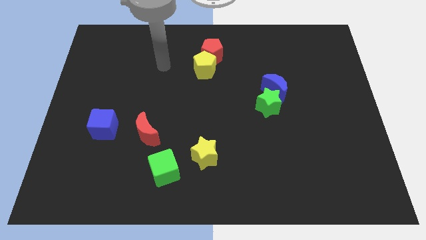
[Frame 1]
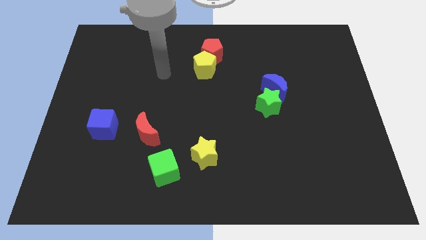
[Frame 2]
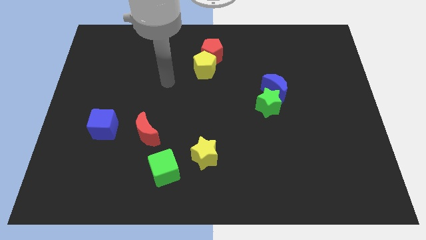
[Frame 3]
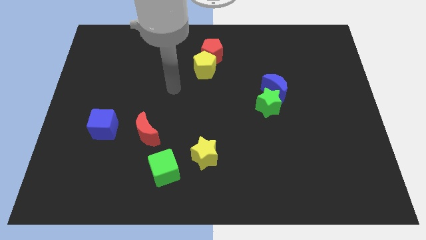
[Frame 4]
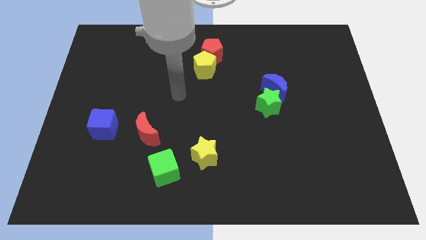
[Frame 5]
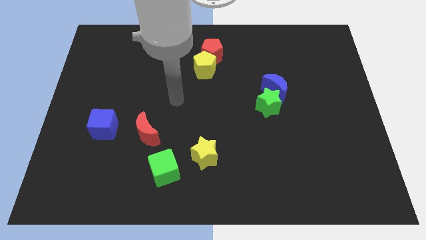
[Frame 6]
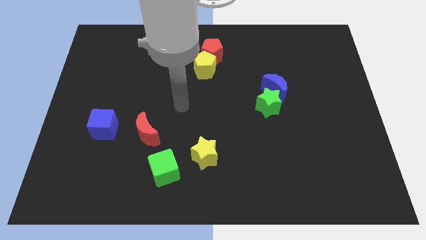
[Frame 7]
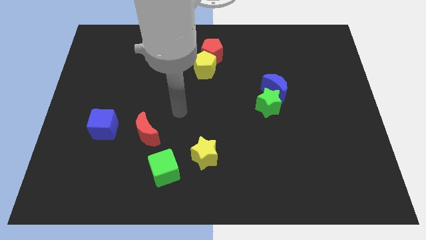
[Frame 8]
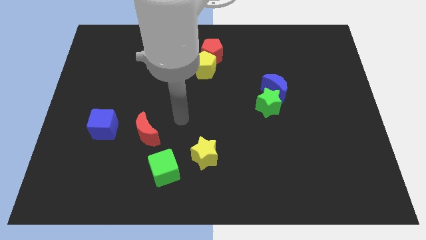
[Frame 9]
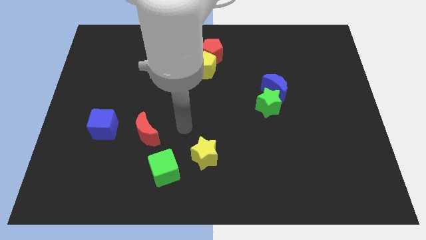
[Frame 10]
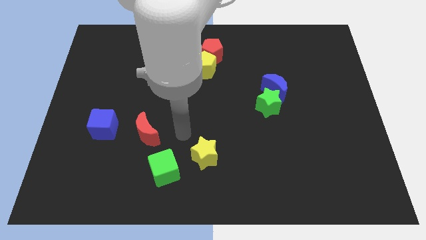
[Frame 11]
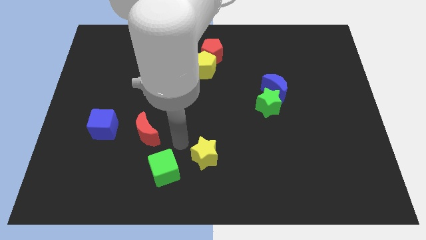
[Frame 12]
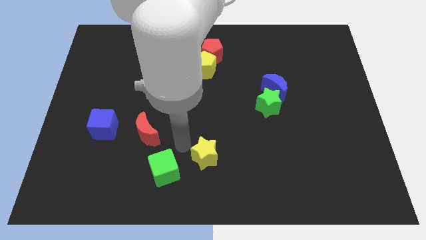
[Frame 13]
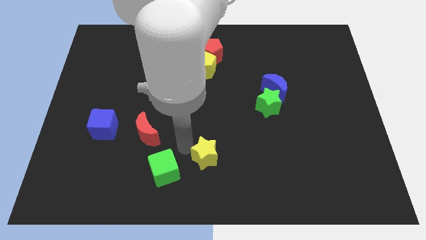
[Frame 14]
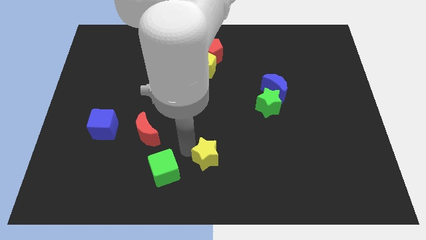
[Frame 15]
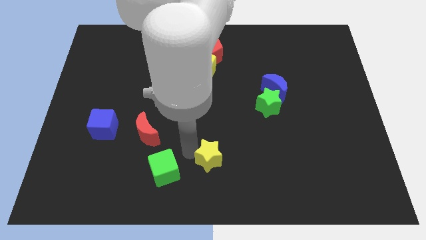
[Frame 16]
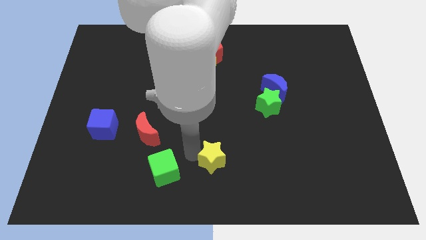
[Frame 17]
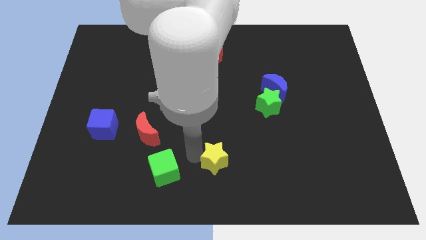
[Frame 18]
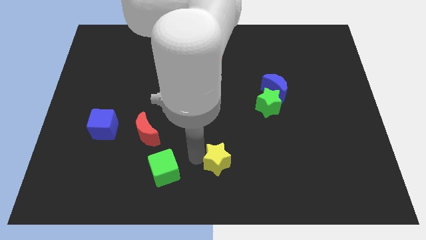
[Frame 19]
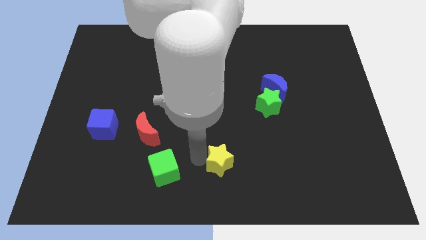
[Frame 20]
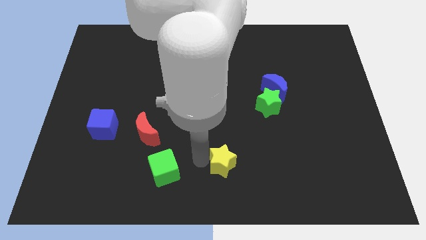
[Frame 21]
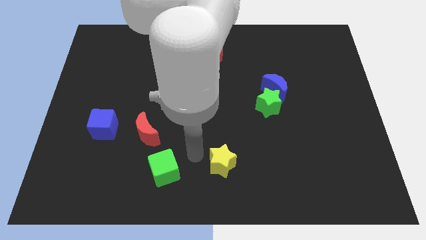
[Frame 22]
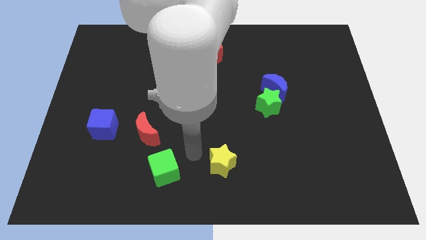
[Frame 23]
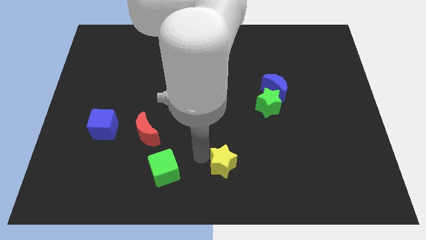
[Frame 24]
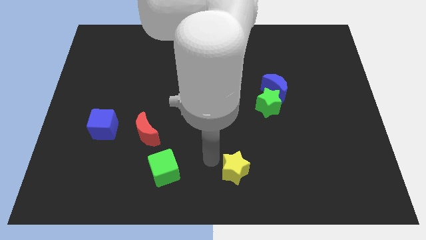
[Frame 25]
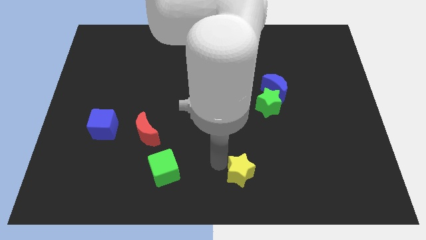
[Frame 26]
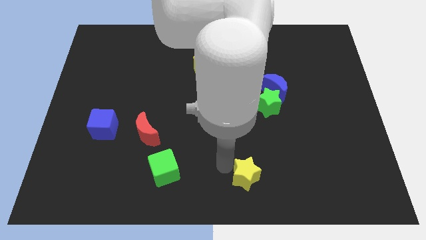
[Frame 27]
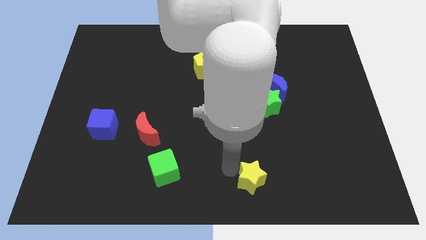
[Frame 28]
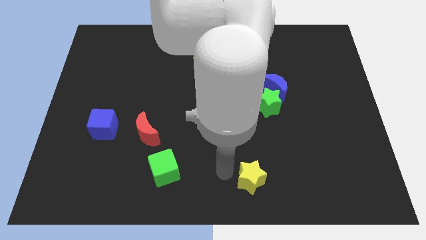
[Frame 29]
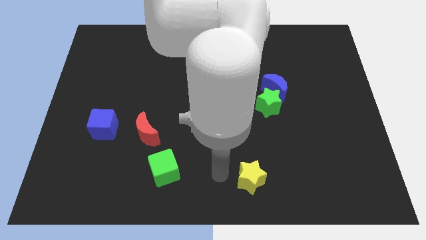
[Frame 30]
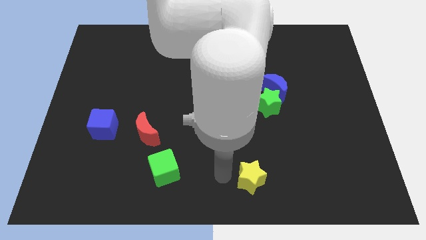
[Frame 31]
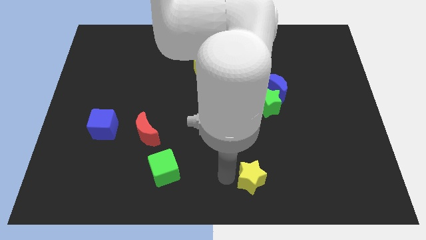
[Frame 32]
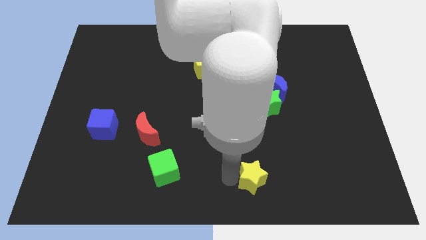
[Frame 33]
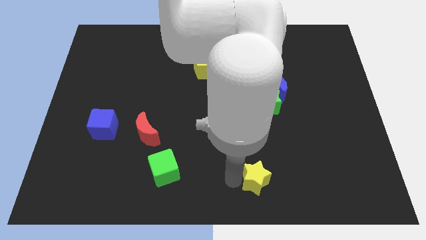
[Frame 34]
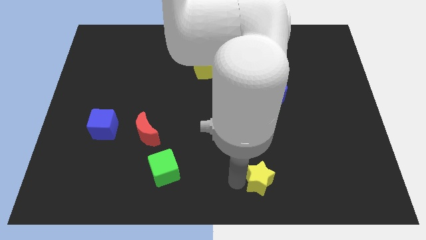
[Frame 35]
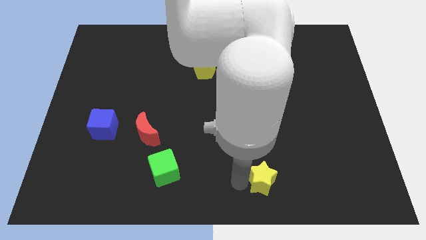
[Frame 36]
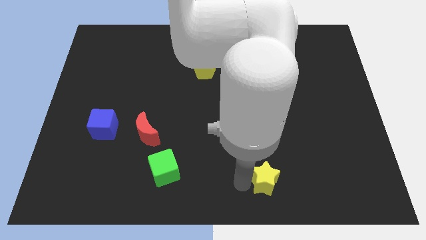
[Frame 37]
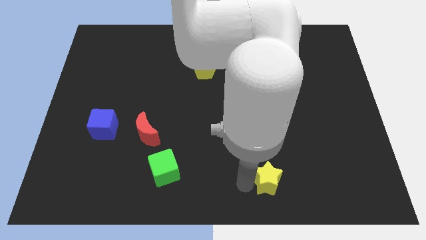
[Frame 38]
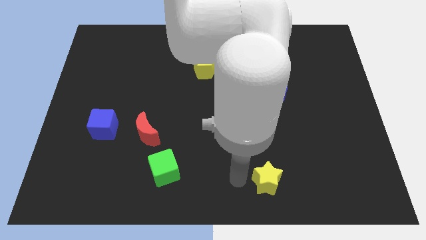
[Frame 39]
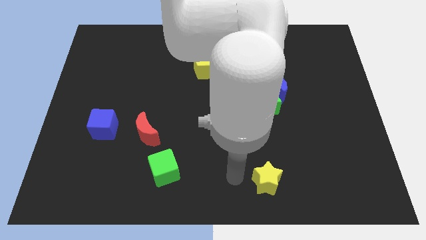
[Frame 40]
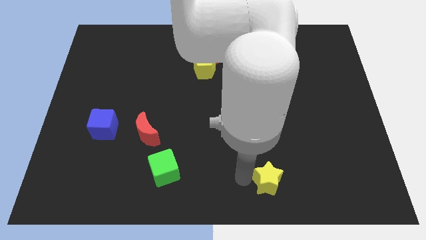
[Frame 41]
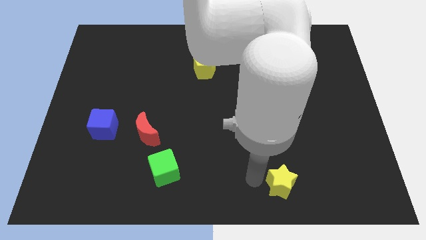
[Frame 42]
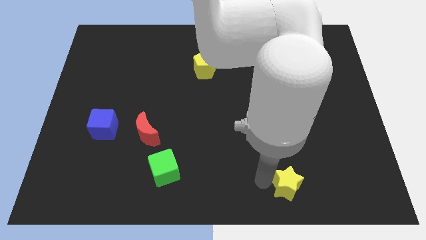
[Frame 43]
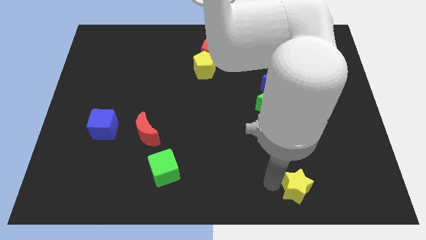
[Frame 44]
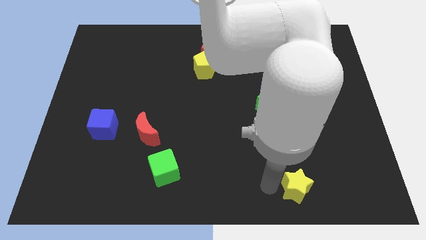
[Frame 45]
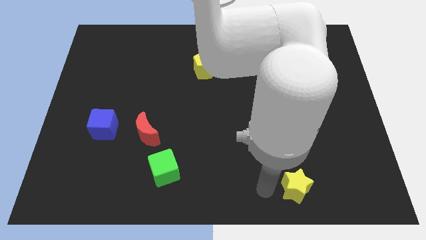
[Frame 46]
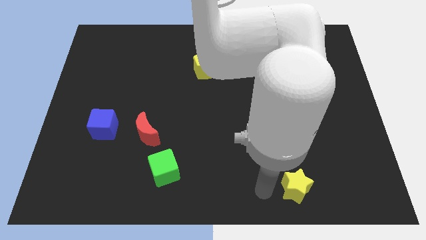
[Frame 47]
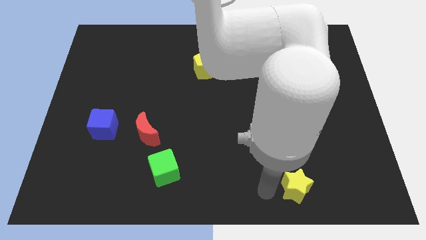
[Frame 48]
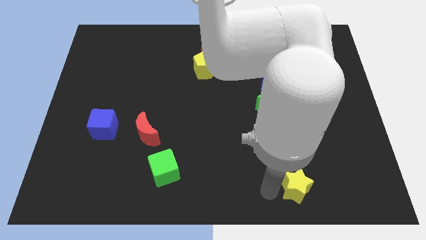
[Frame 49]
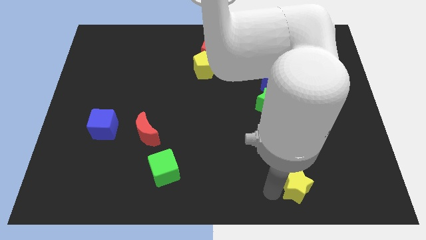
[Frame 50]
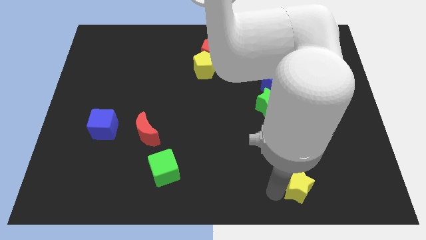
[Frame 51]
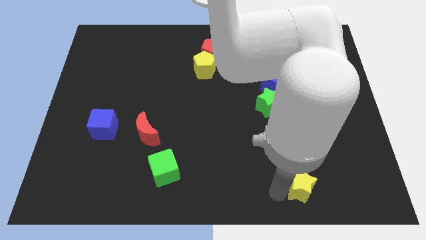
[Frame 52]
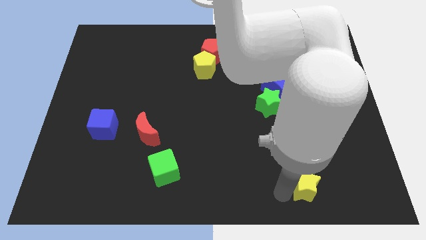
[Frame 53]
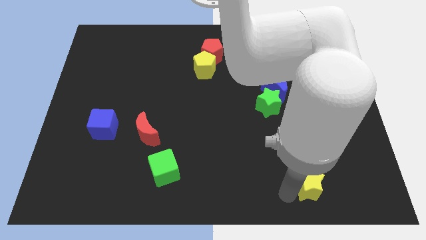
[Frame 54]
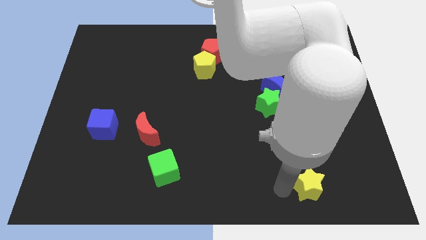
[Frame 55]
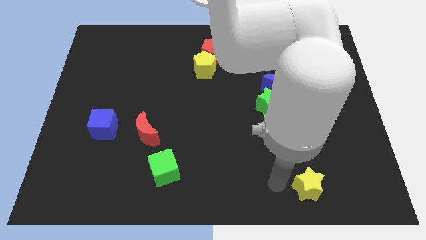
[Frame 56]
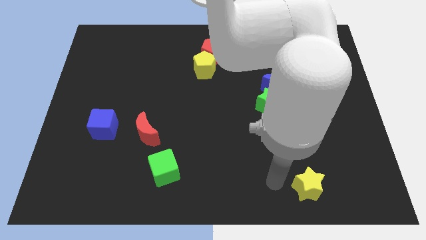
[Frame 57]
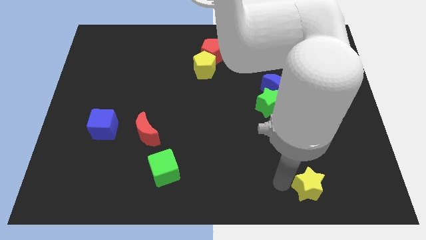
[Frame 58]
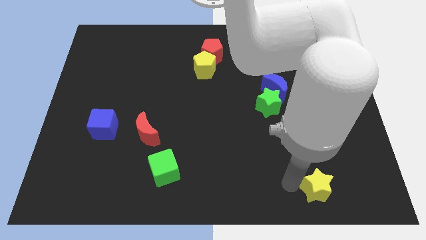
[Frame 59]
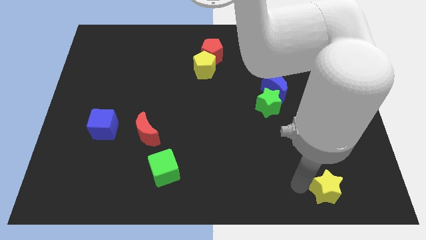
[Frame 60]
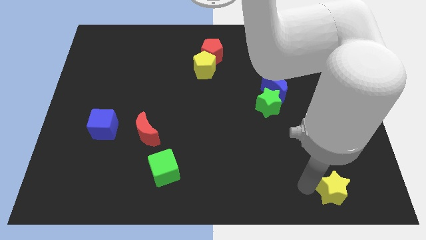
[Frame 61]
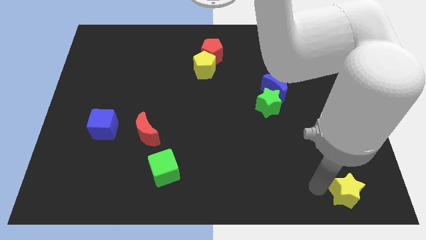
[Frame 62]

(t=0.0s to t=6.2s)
put the yellow star to the bottom right
